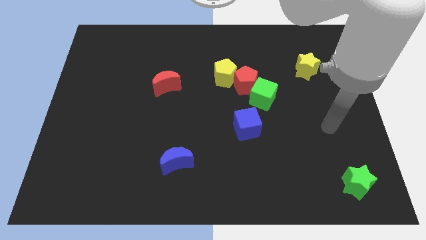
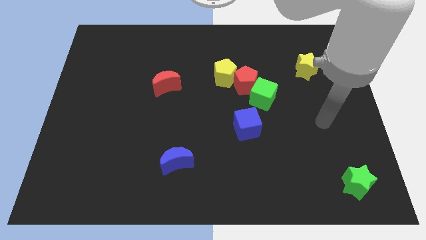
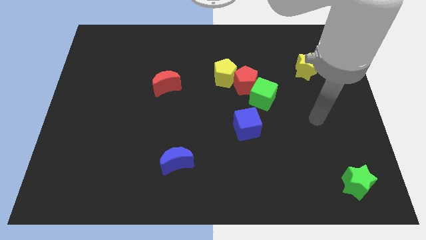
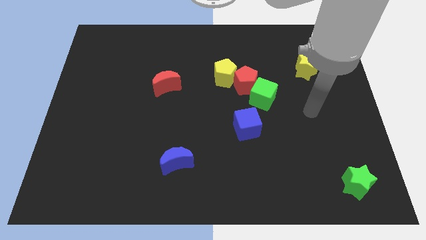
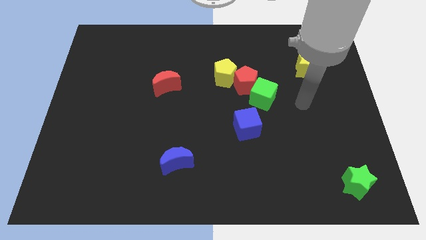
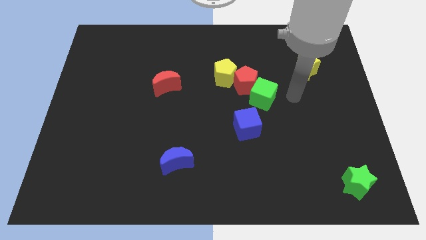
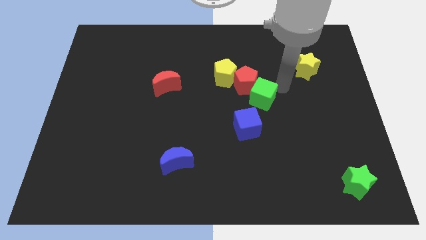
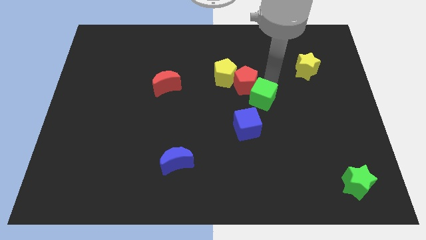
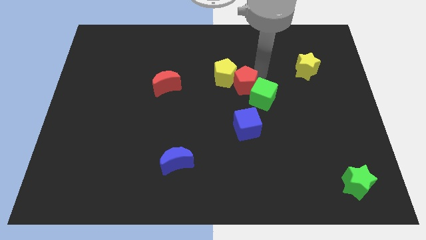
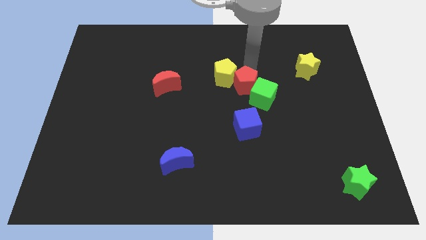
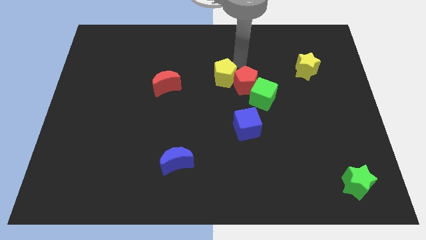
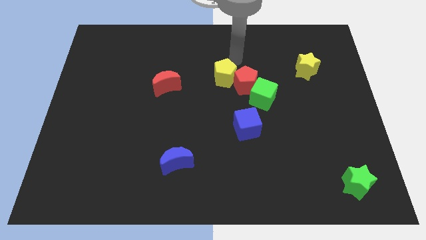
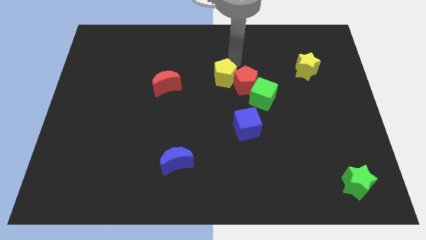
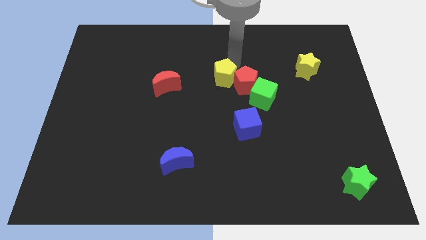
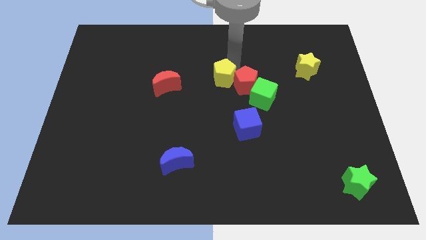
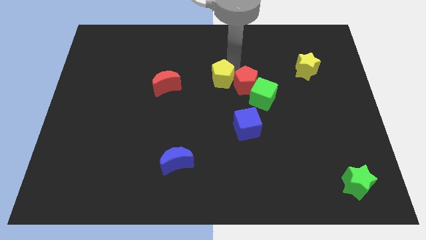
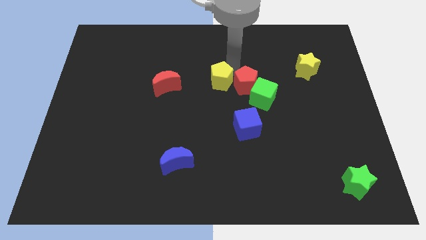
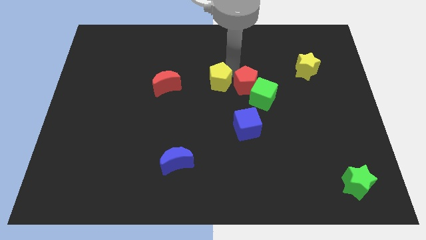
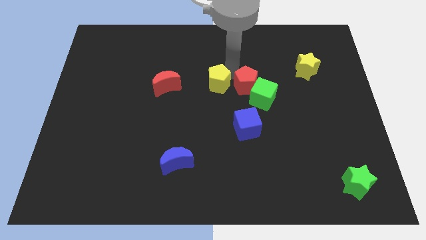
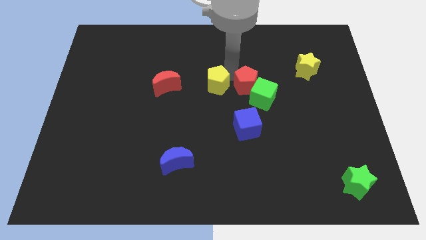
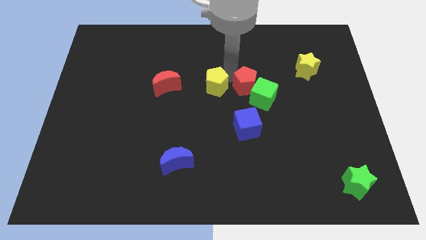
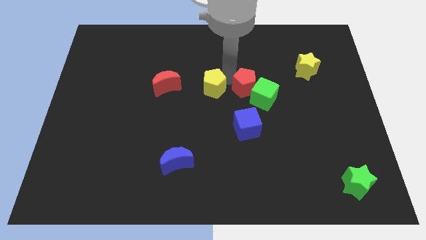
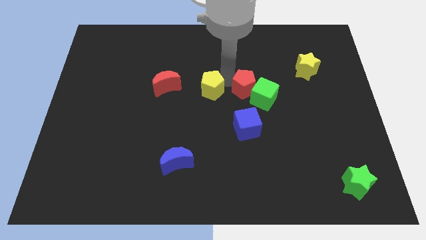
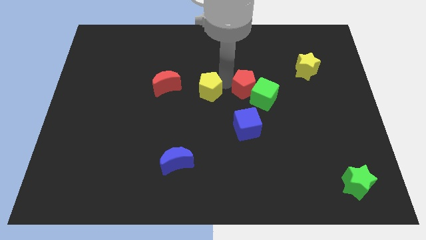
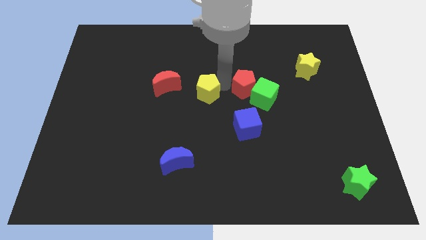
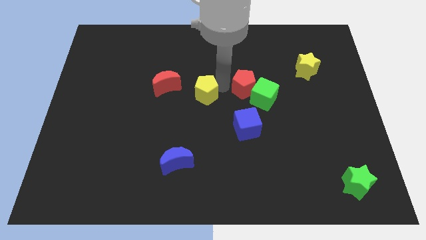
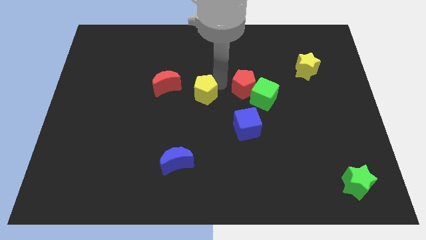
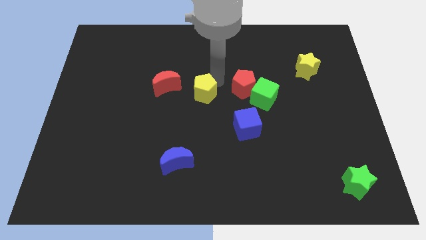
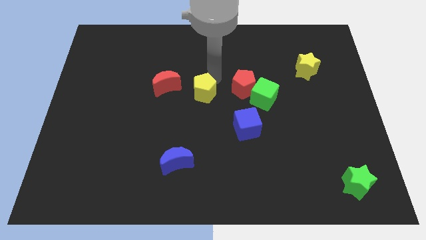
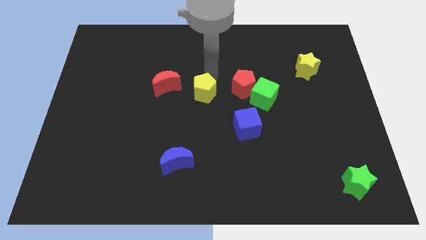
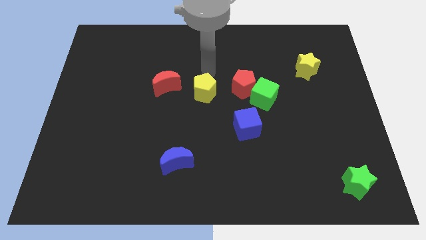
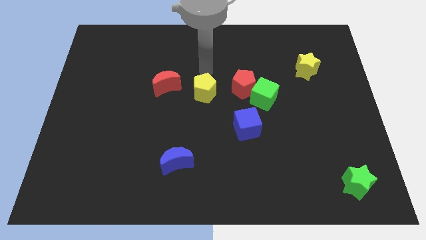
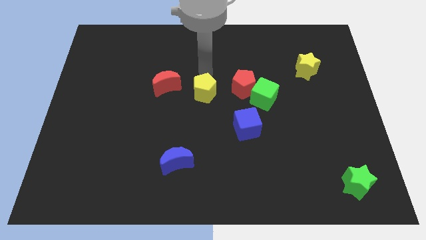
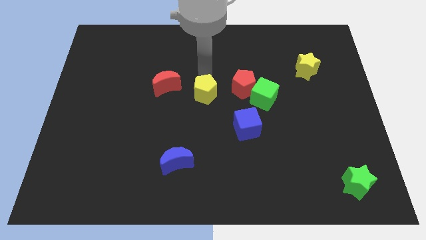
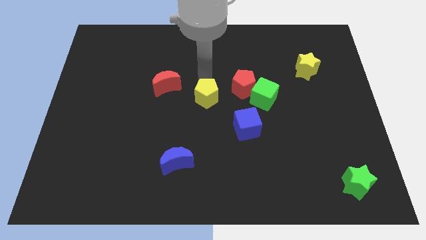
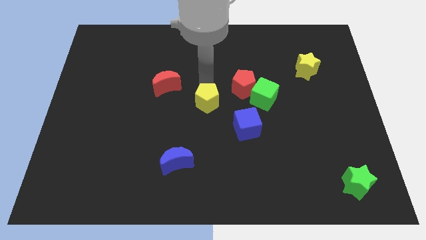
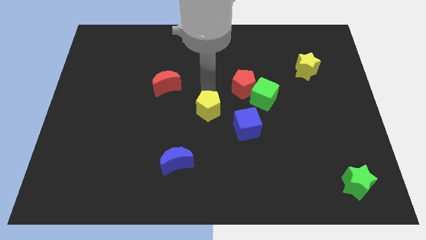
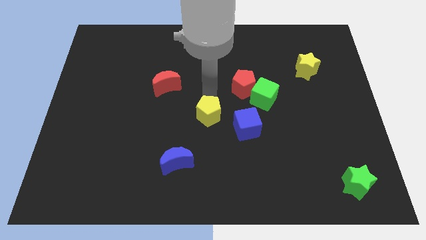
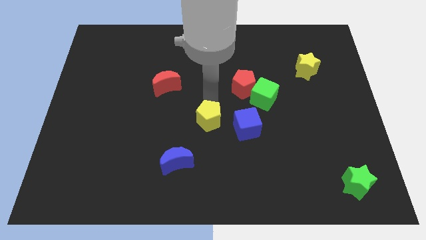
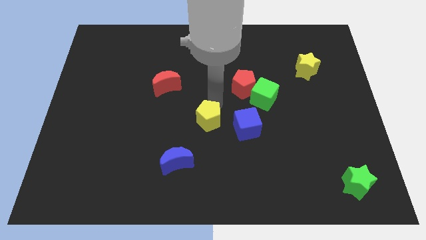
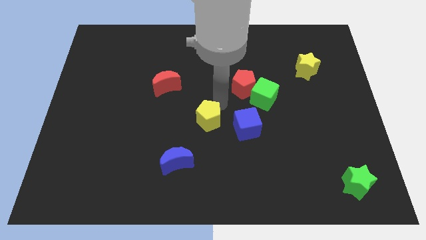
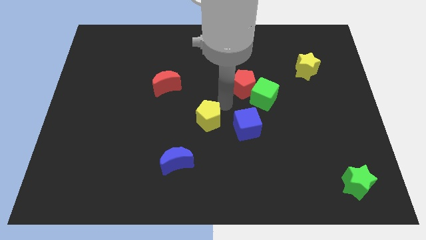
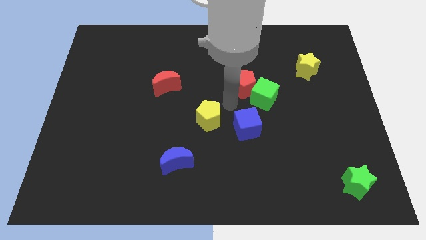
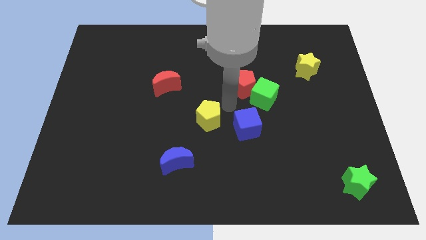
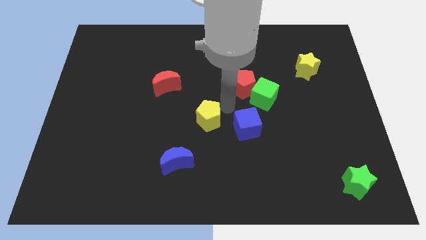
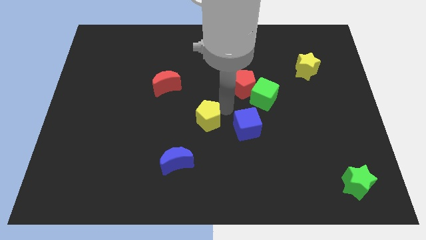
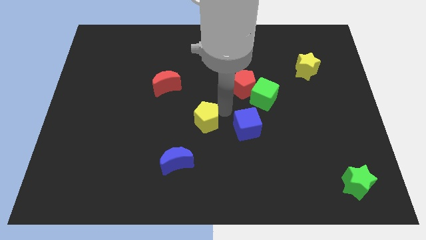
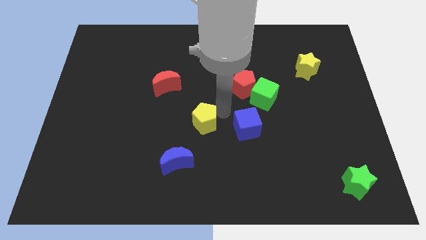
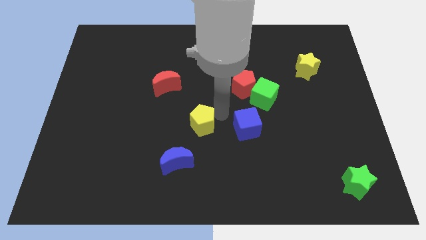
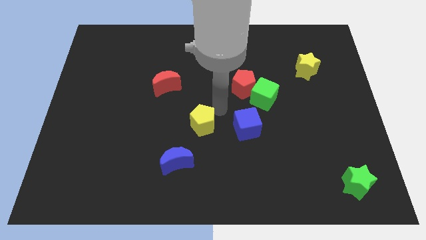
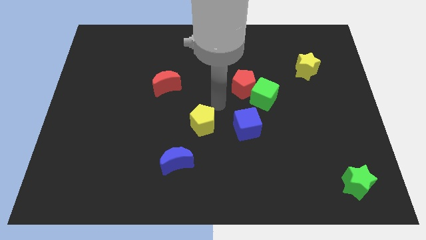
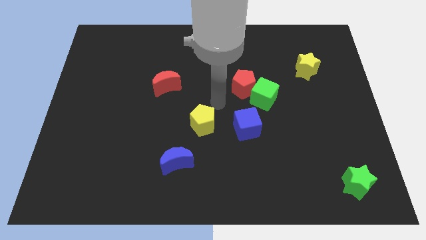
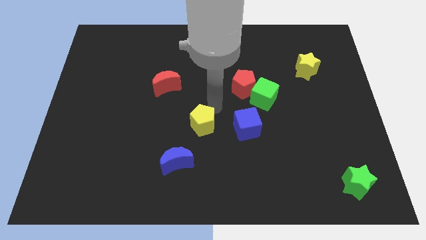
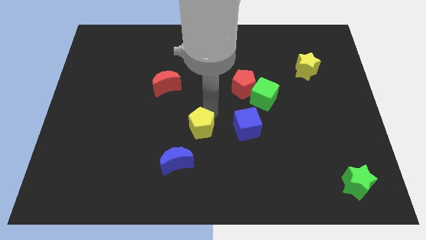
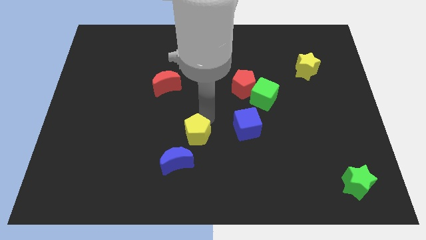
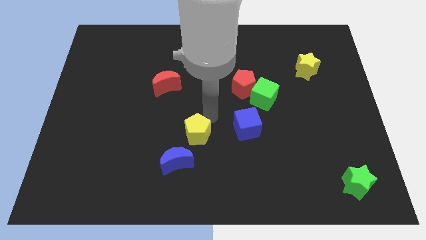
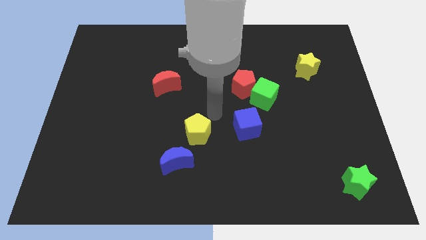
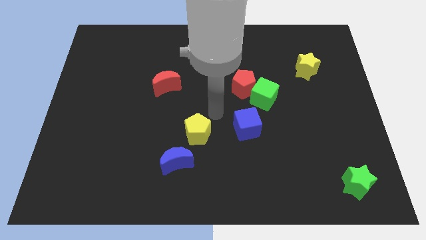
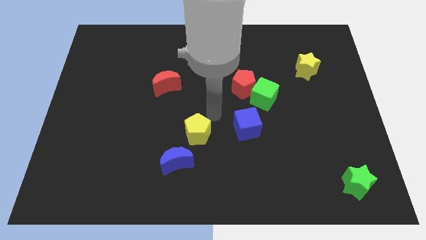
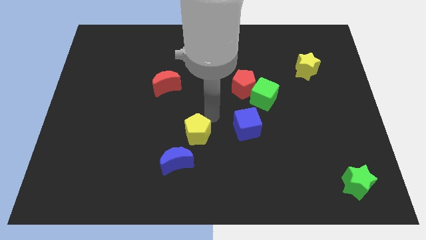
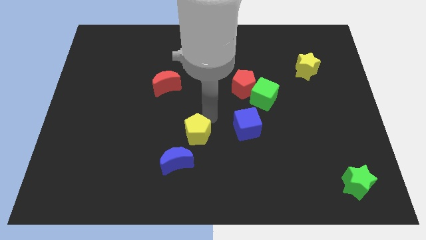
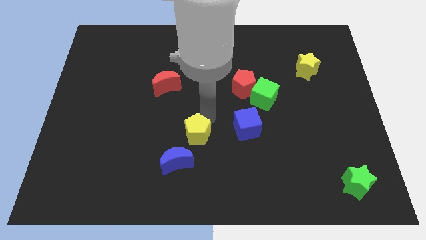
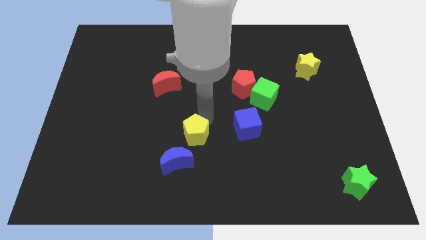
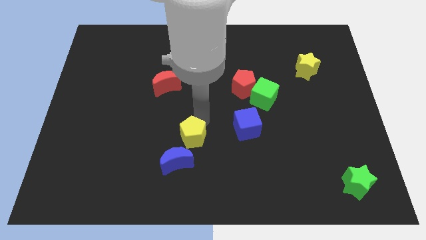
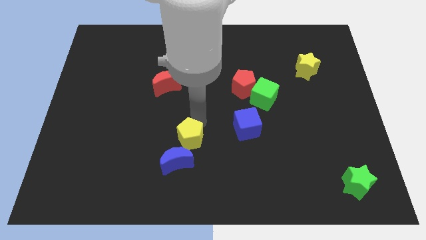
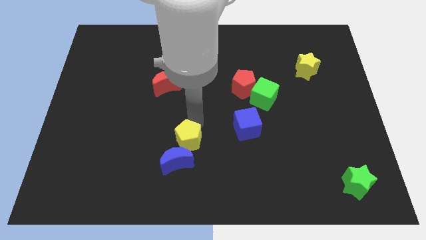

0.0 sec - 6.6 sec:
slide the yellow pentagon towards the blue moon

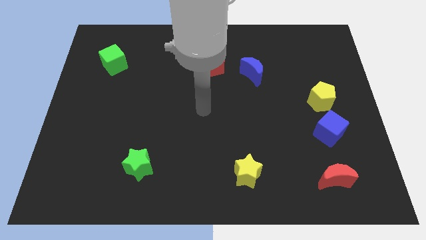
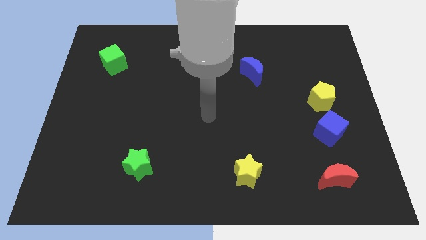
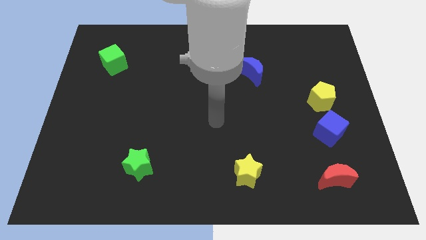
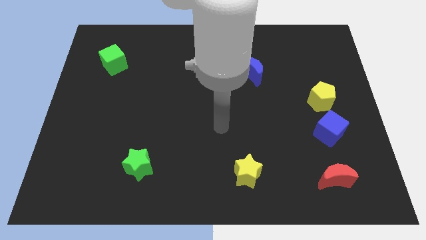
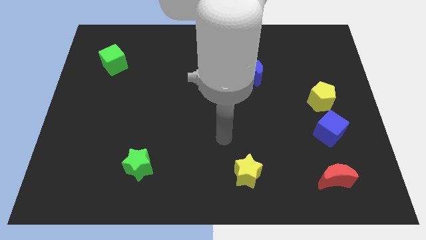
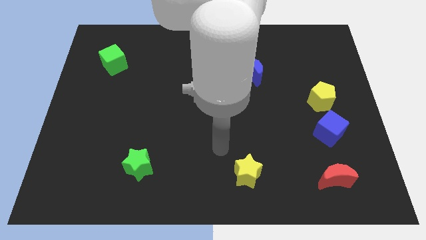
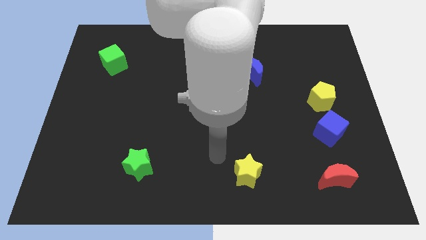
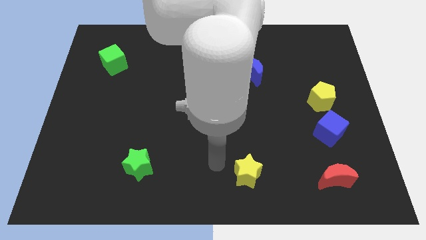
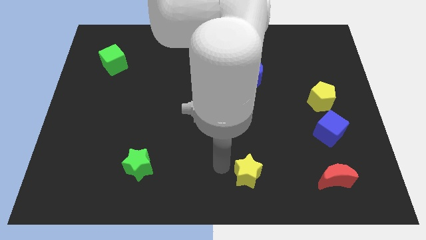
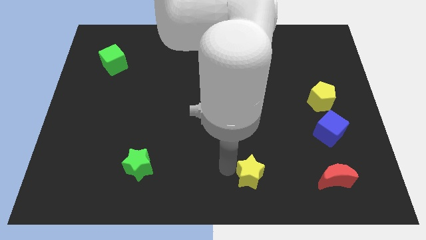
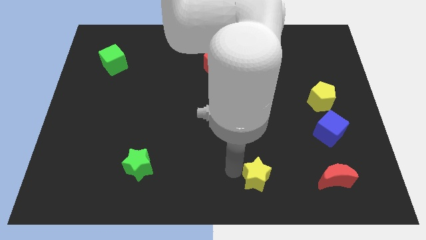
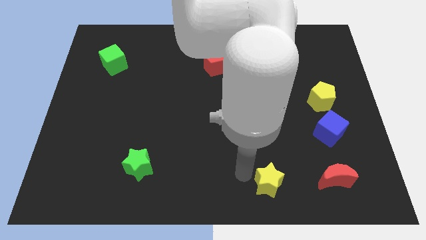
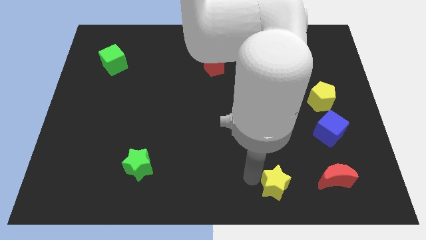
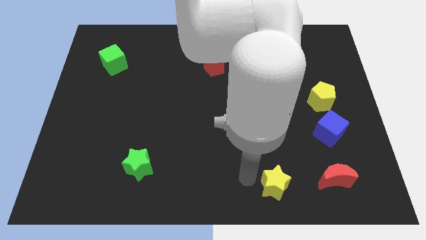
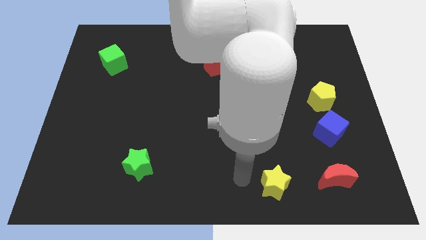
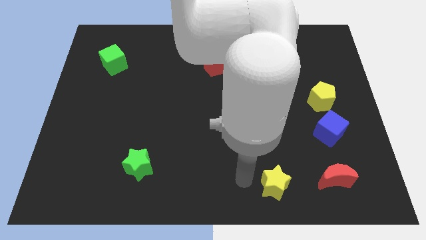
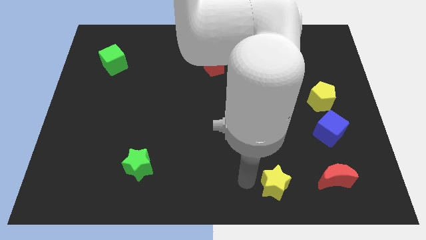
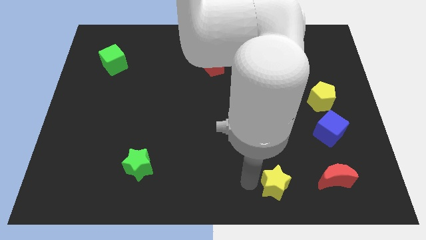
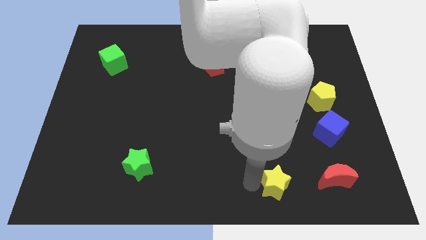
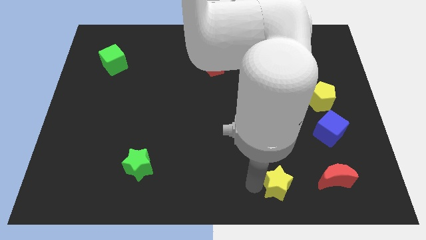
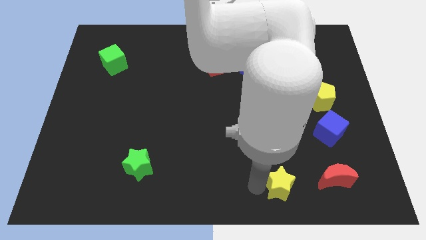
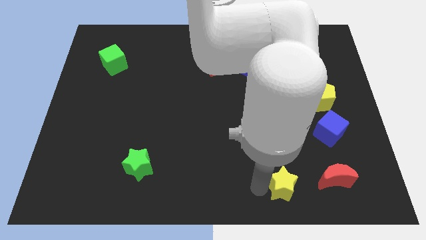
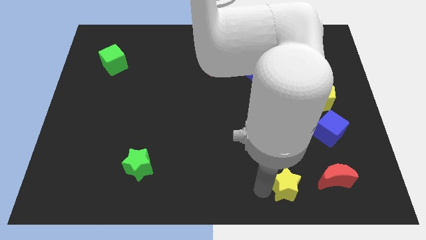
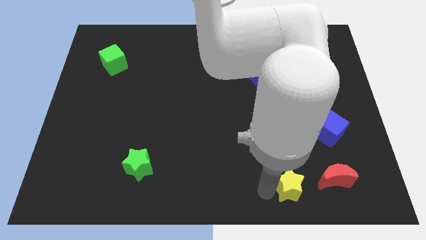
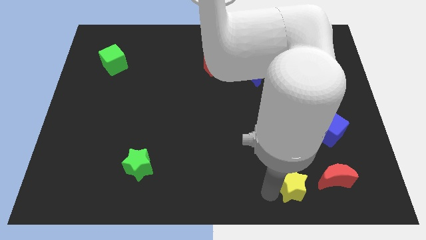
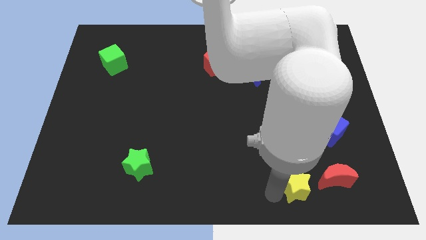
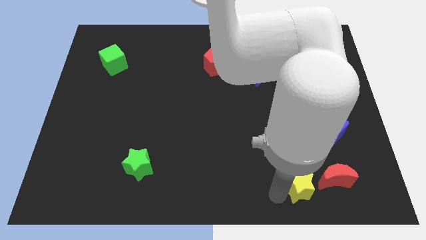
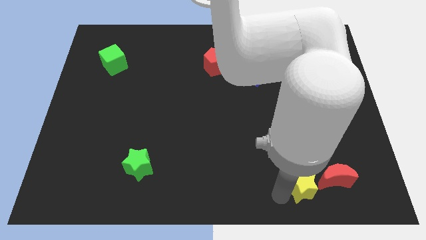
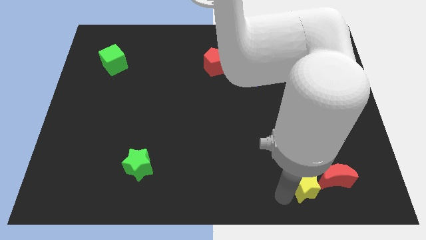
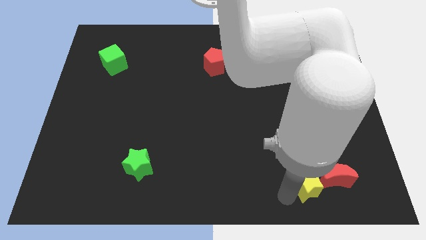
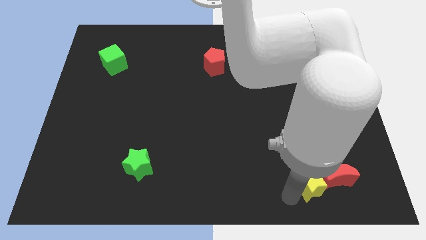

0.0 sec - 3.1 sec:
move the yellow star to the red moon
